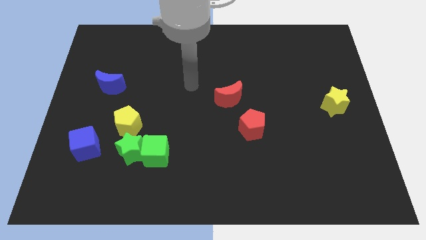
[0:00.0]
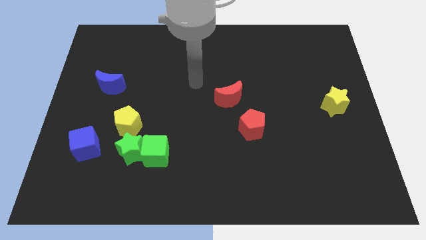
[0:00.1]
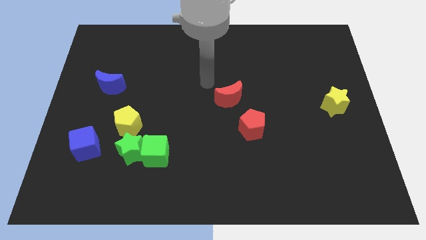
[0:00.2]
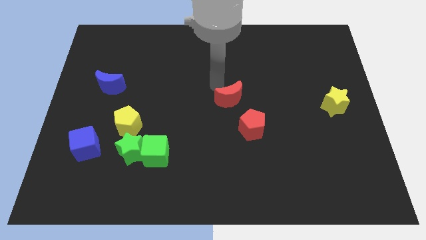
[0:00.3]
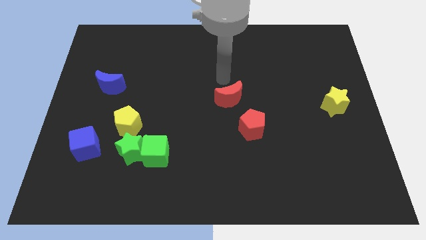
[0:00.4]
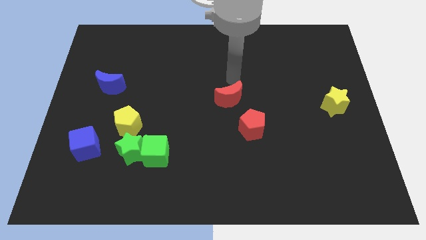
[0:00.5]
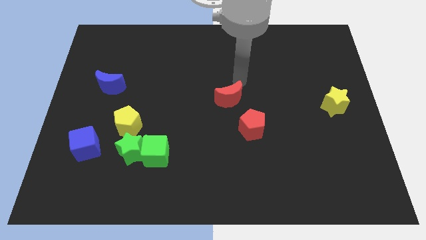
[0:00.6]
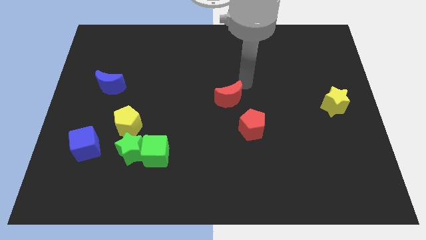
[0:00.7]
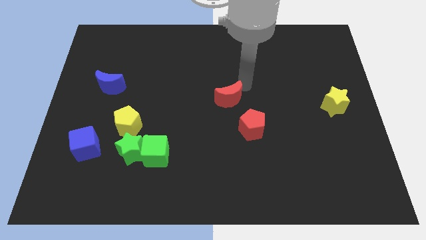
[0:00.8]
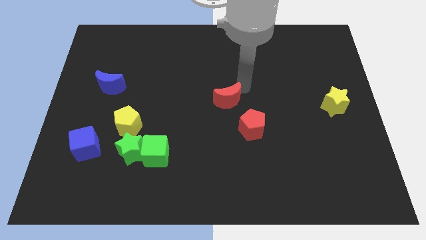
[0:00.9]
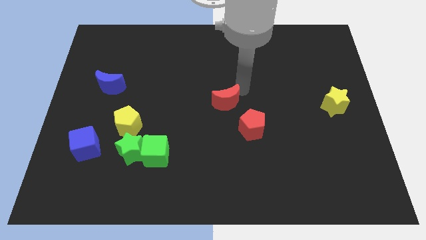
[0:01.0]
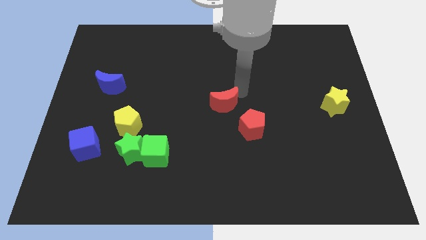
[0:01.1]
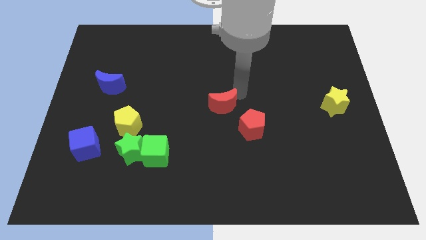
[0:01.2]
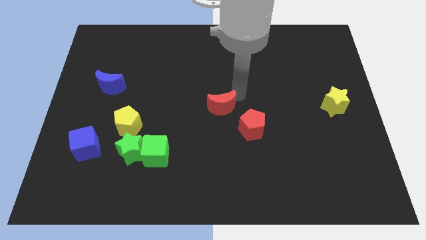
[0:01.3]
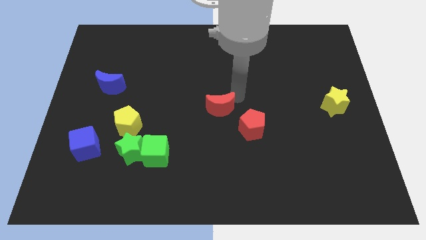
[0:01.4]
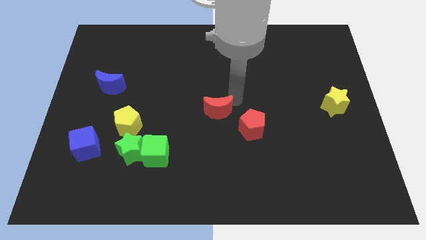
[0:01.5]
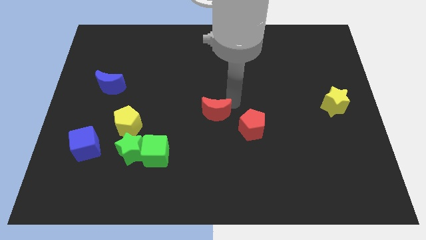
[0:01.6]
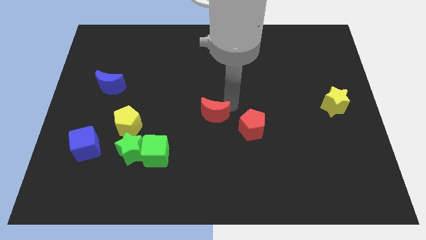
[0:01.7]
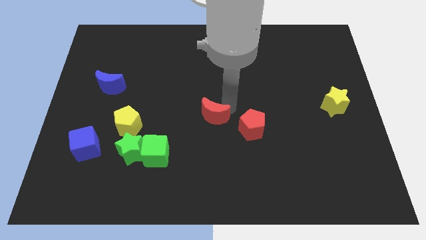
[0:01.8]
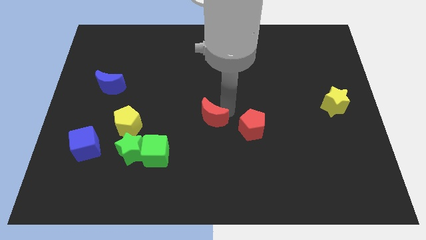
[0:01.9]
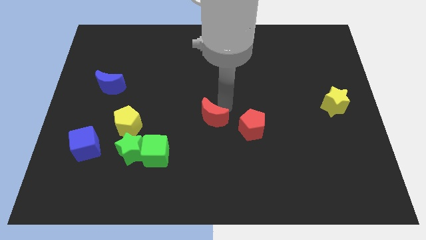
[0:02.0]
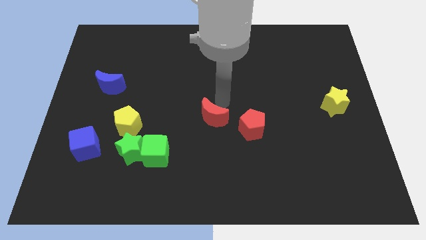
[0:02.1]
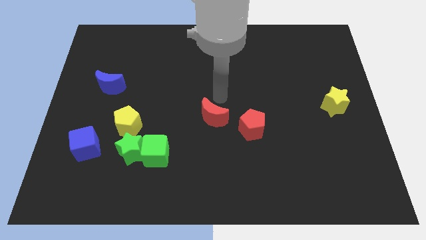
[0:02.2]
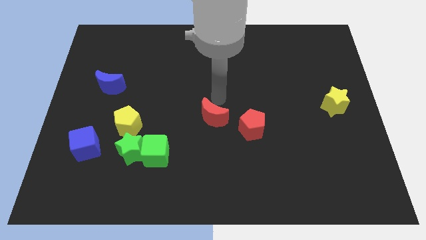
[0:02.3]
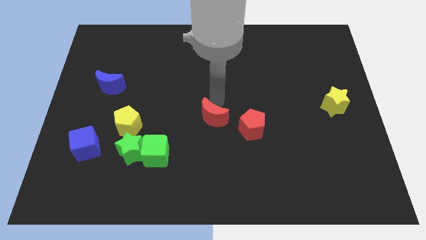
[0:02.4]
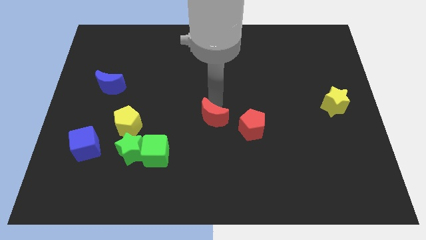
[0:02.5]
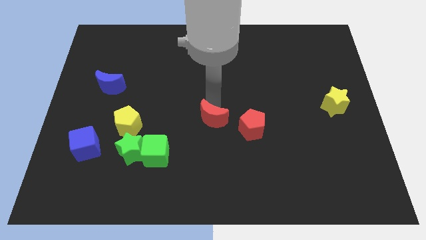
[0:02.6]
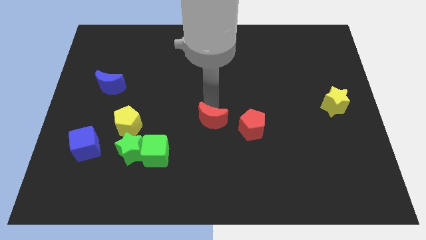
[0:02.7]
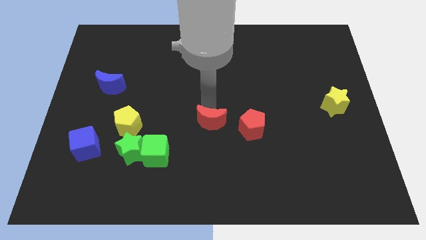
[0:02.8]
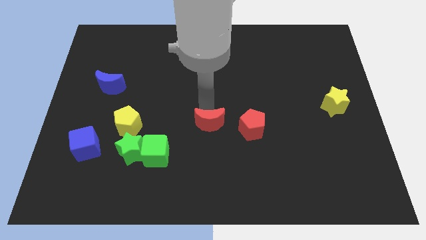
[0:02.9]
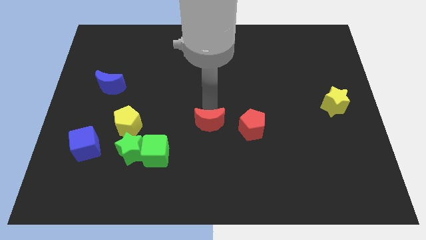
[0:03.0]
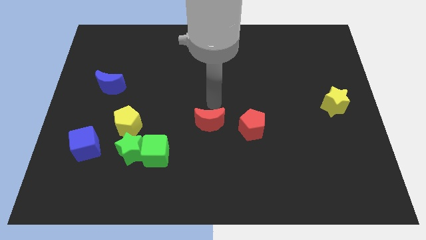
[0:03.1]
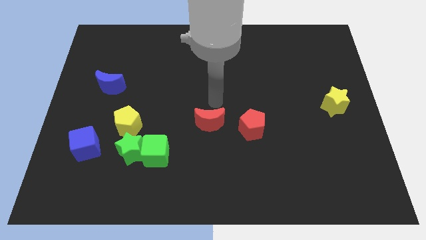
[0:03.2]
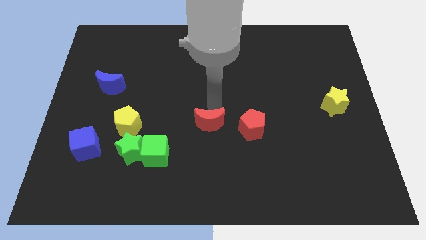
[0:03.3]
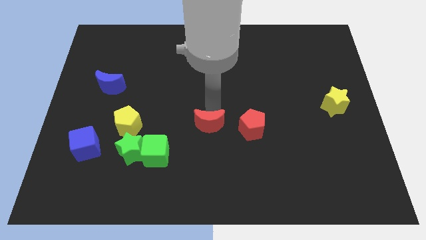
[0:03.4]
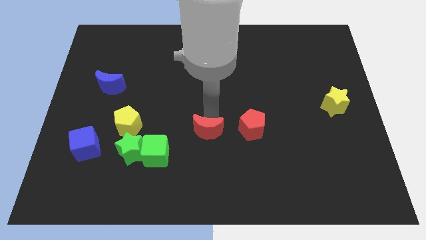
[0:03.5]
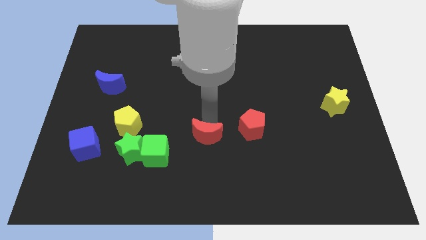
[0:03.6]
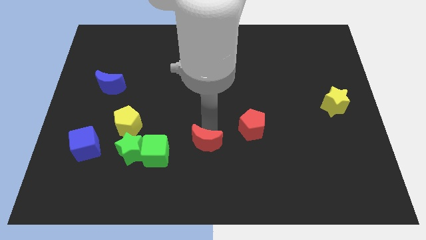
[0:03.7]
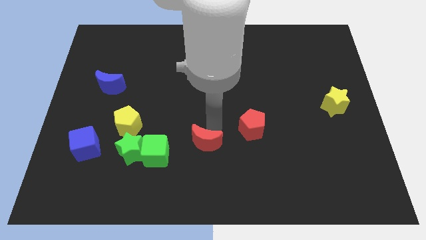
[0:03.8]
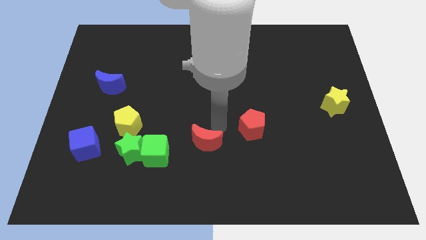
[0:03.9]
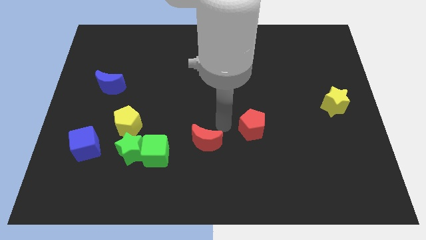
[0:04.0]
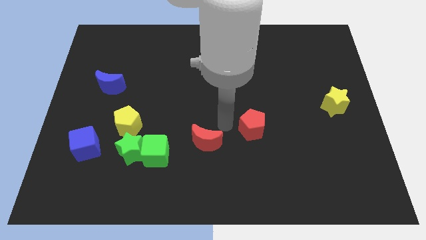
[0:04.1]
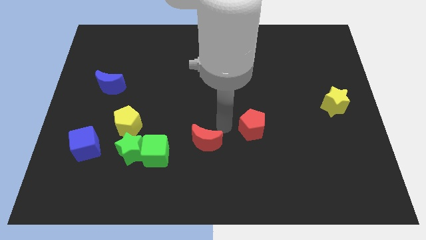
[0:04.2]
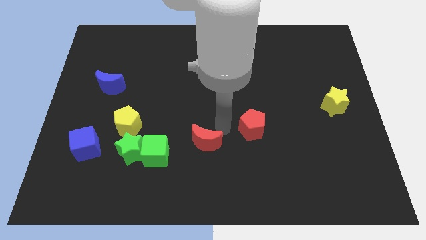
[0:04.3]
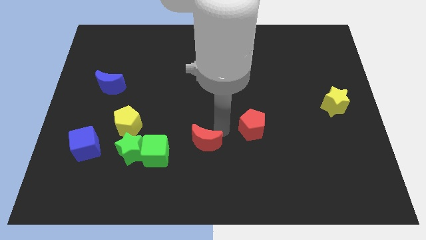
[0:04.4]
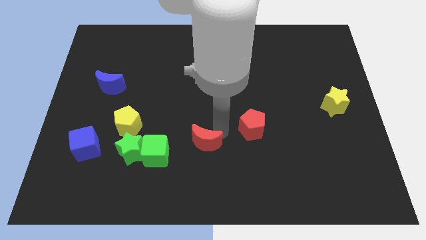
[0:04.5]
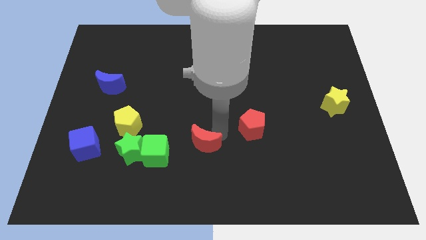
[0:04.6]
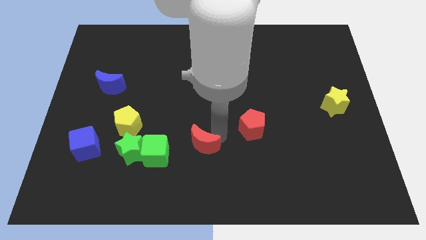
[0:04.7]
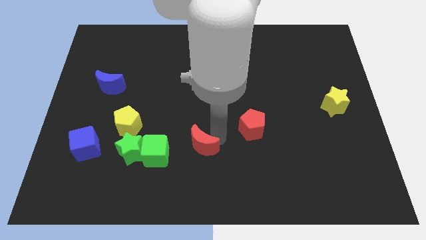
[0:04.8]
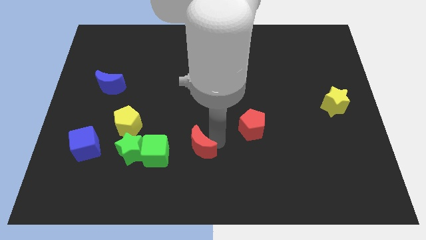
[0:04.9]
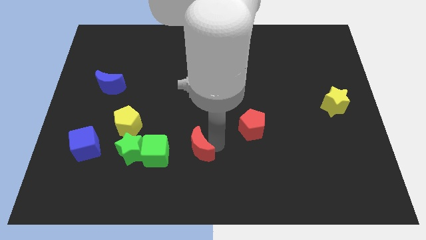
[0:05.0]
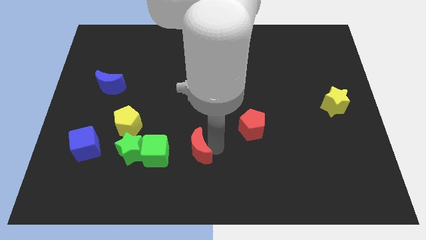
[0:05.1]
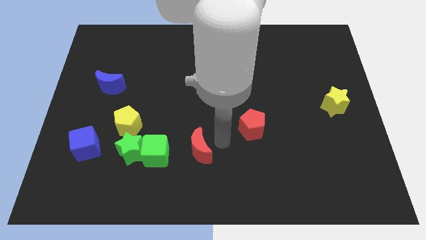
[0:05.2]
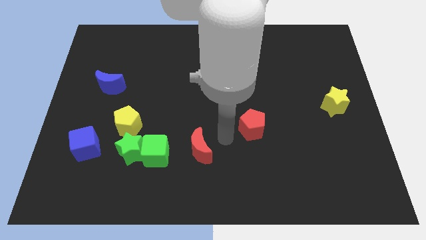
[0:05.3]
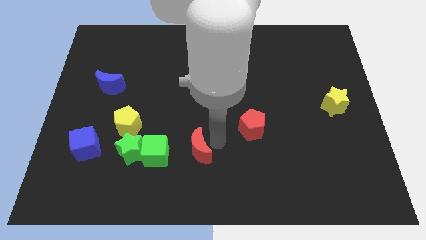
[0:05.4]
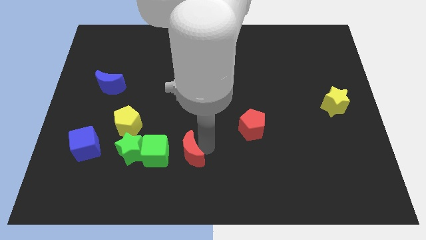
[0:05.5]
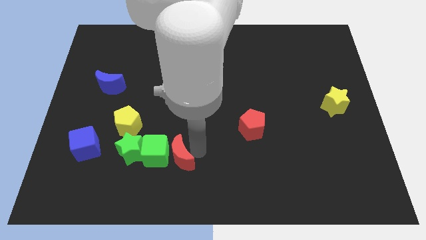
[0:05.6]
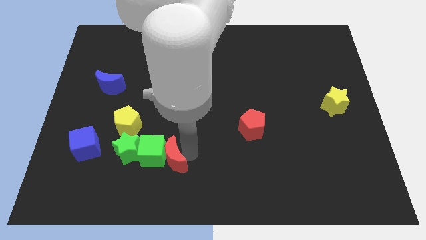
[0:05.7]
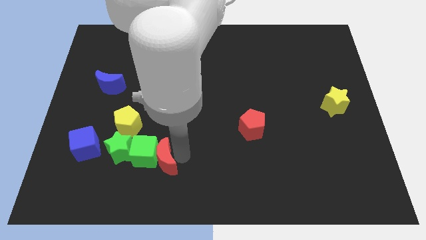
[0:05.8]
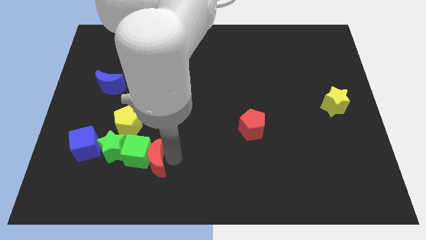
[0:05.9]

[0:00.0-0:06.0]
slide the red moon diagonally down and to the right of the green star

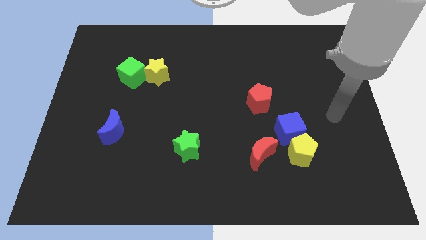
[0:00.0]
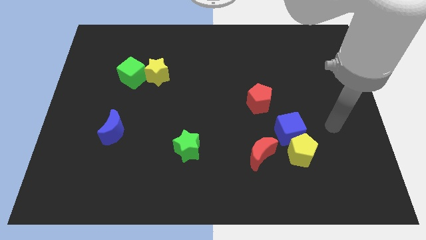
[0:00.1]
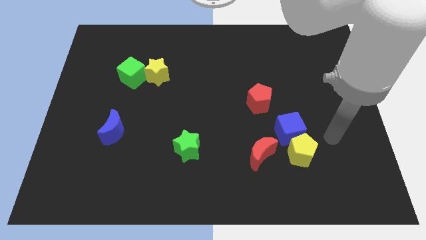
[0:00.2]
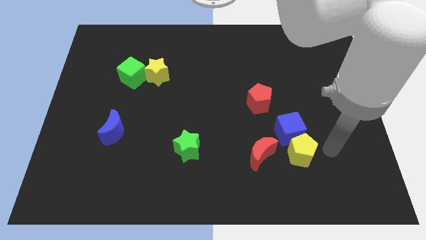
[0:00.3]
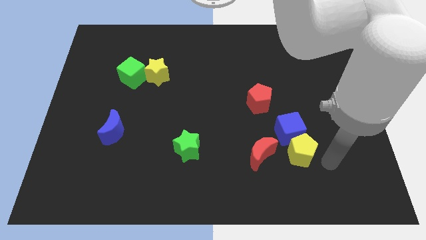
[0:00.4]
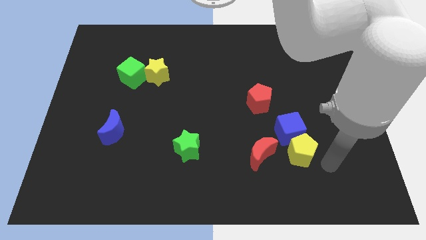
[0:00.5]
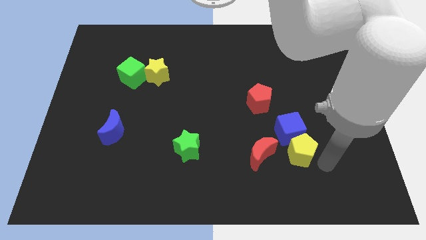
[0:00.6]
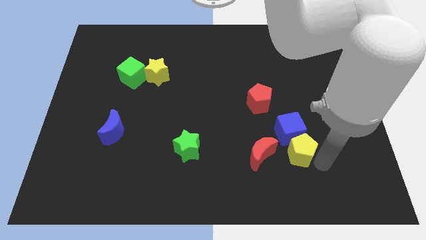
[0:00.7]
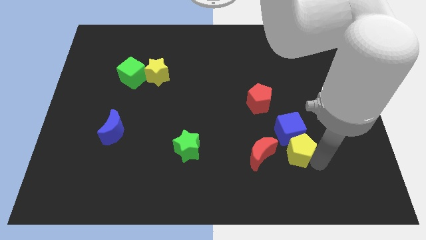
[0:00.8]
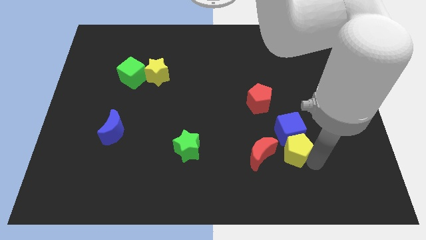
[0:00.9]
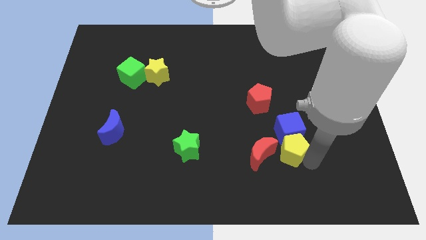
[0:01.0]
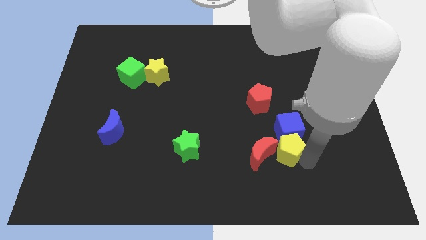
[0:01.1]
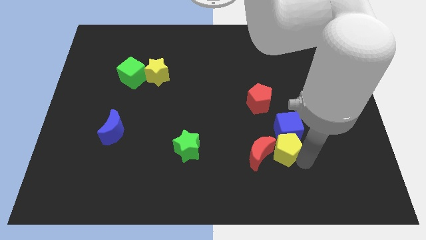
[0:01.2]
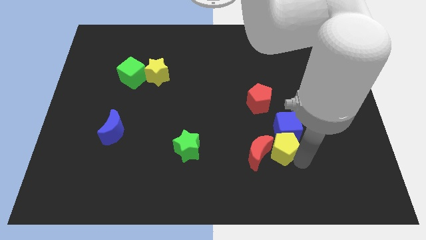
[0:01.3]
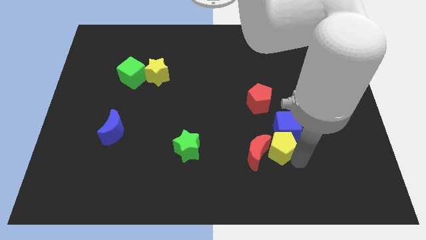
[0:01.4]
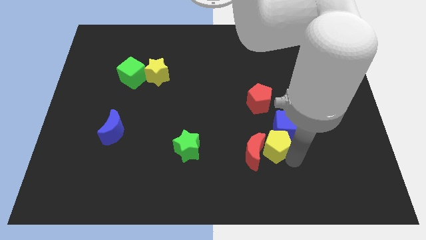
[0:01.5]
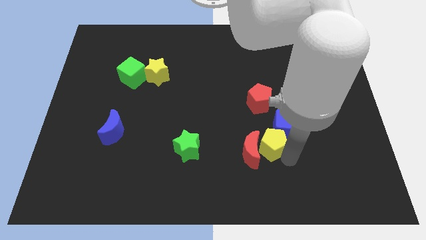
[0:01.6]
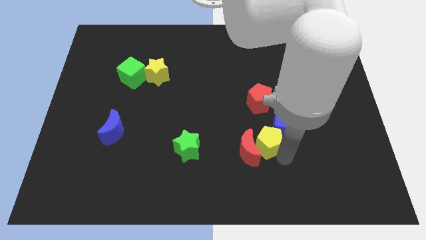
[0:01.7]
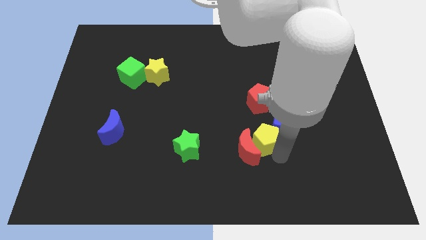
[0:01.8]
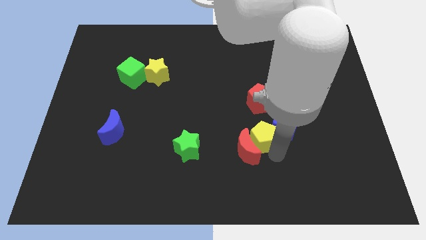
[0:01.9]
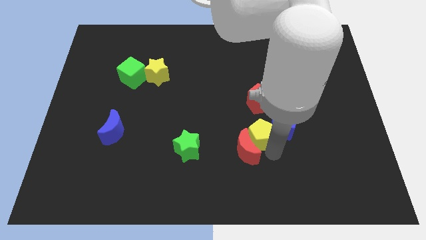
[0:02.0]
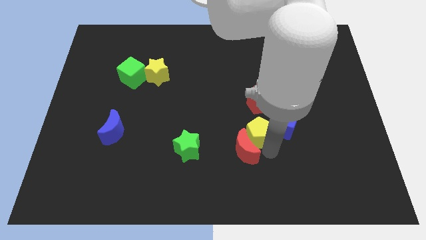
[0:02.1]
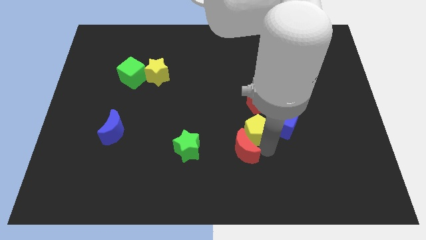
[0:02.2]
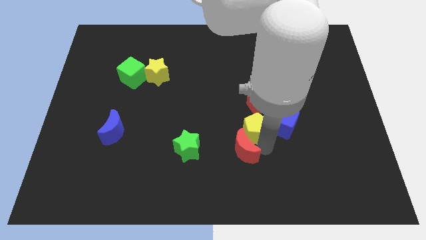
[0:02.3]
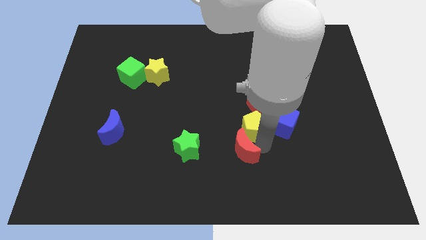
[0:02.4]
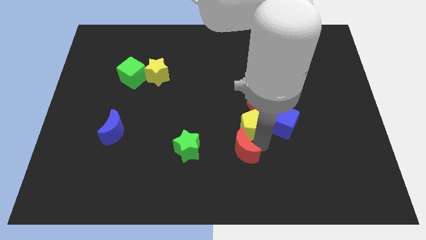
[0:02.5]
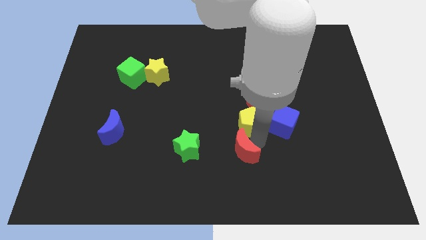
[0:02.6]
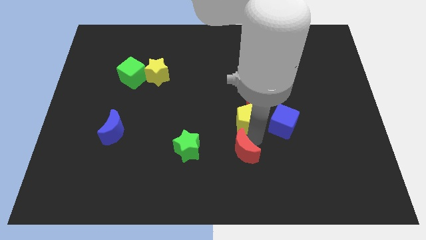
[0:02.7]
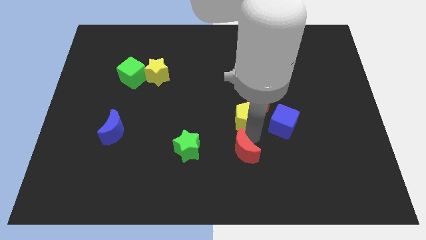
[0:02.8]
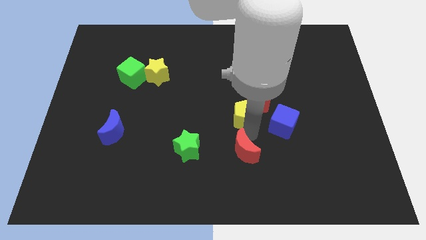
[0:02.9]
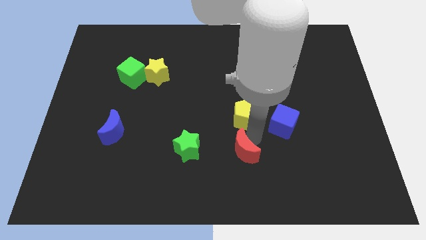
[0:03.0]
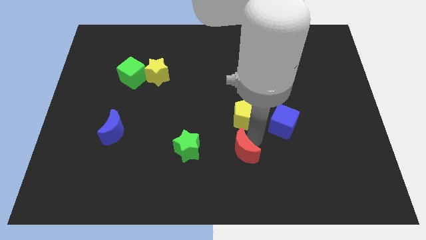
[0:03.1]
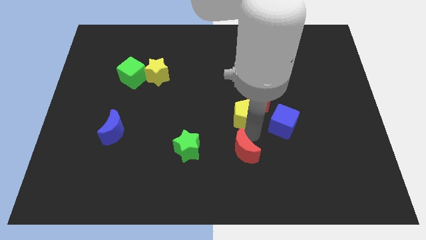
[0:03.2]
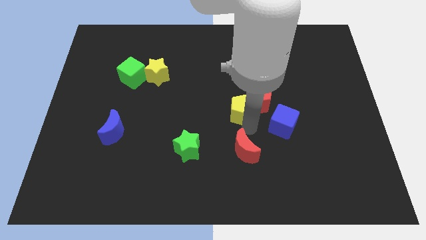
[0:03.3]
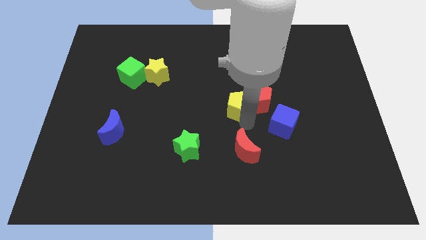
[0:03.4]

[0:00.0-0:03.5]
move the yellow pentagon diagonally up and to the left of the red pentagon
